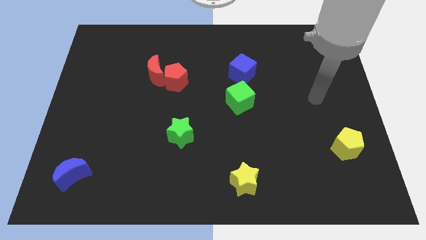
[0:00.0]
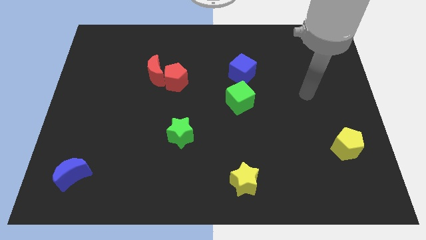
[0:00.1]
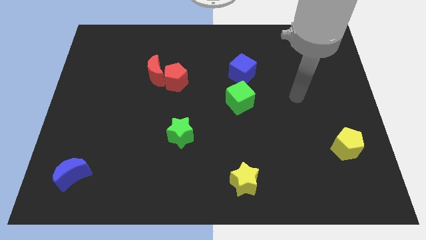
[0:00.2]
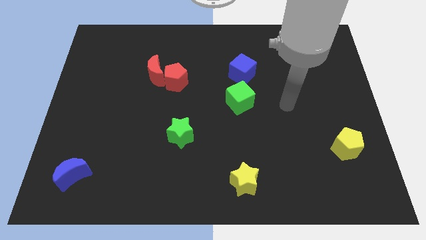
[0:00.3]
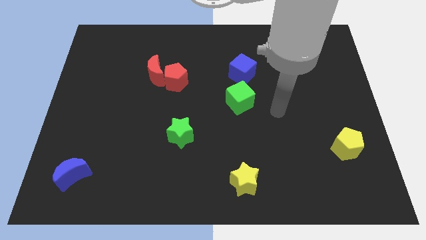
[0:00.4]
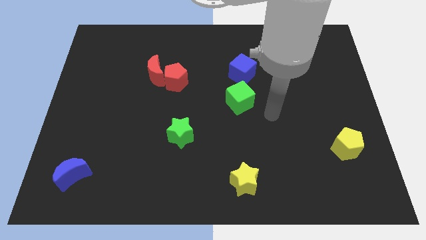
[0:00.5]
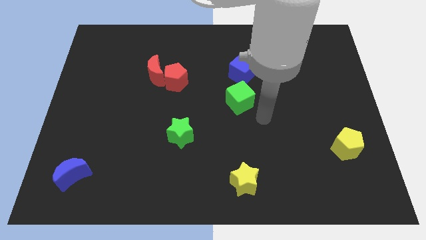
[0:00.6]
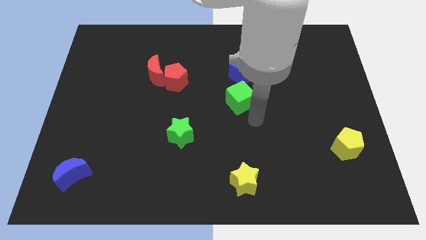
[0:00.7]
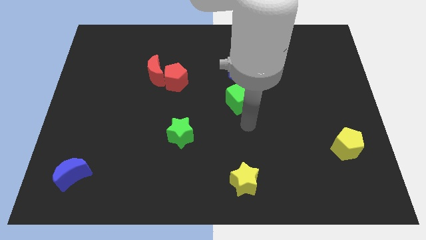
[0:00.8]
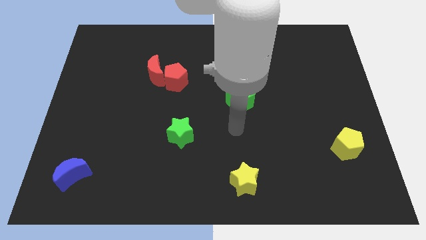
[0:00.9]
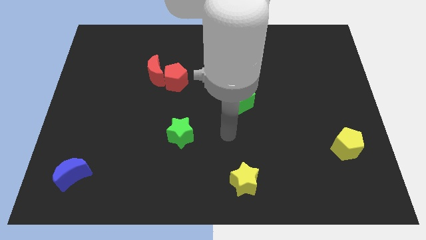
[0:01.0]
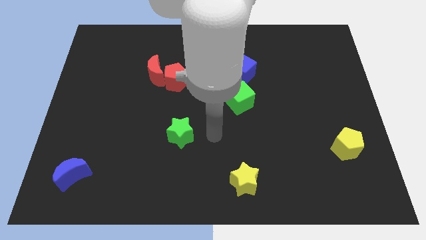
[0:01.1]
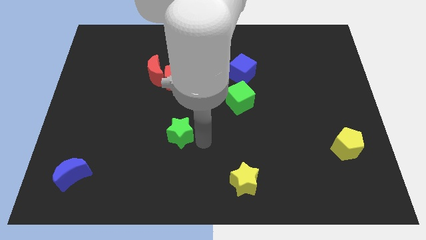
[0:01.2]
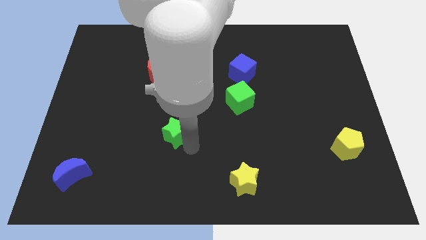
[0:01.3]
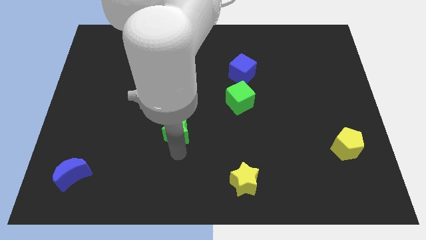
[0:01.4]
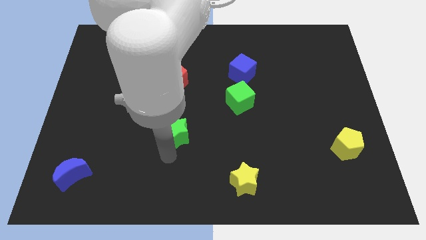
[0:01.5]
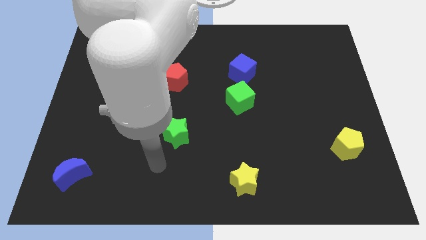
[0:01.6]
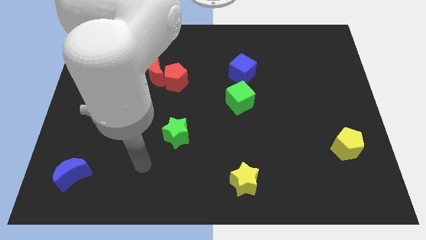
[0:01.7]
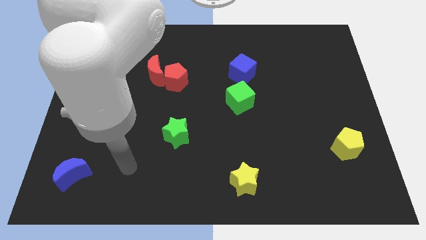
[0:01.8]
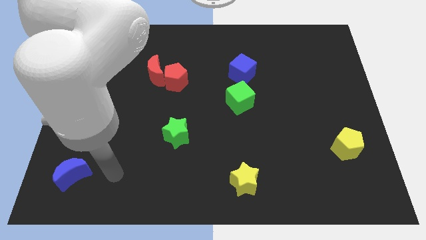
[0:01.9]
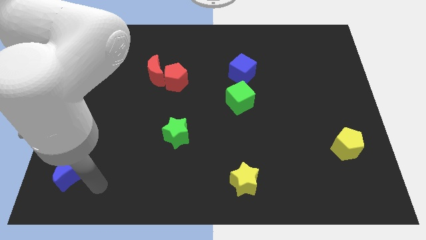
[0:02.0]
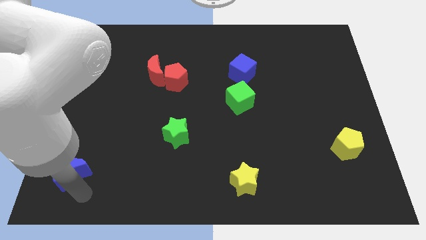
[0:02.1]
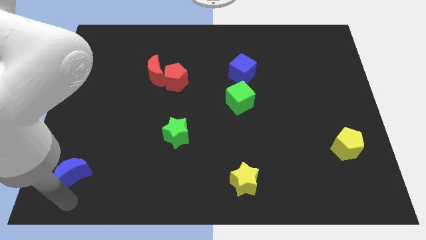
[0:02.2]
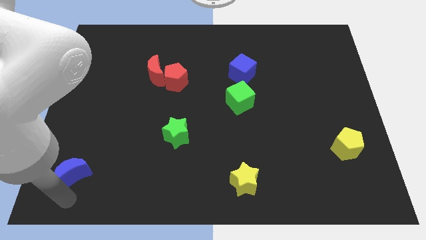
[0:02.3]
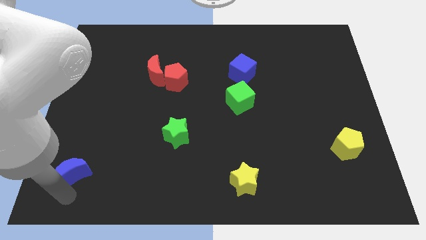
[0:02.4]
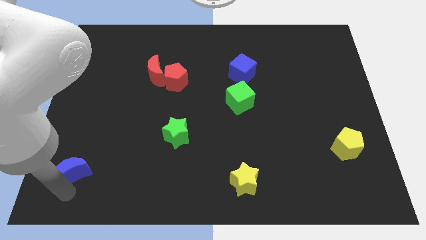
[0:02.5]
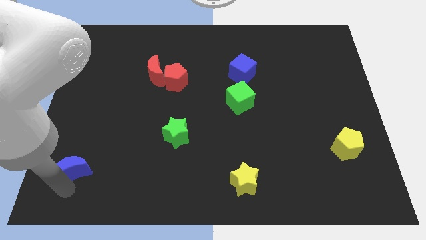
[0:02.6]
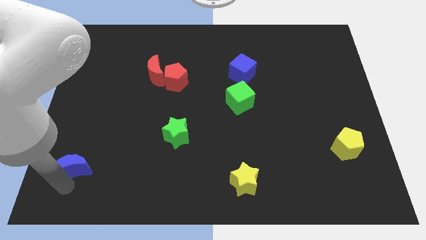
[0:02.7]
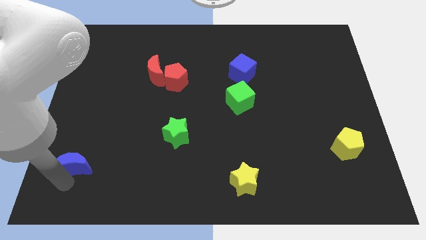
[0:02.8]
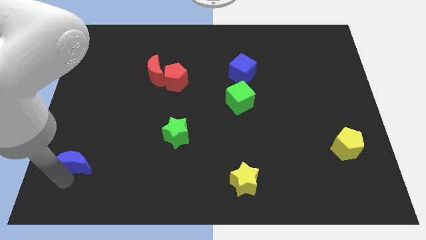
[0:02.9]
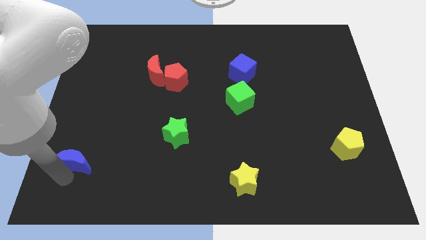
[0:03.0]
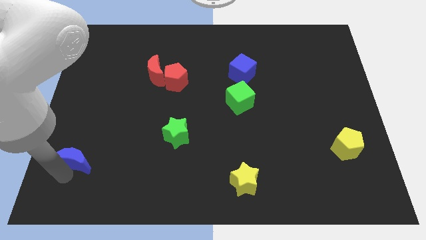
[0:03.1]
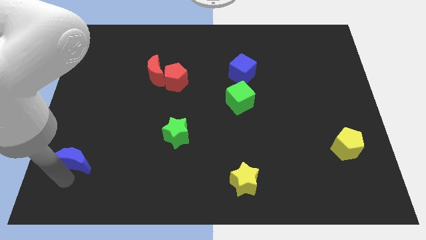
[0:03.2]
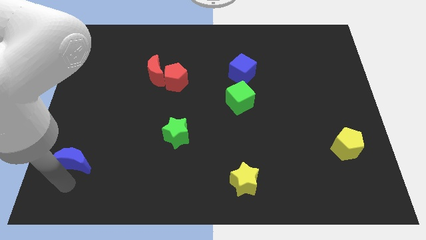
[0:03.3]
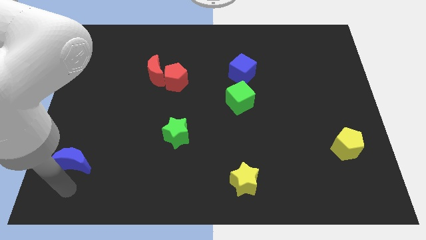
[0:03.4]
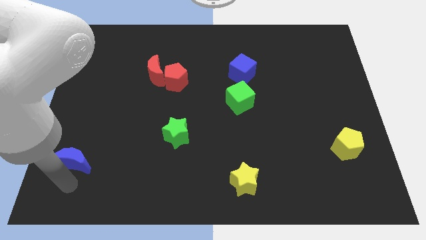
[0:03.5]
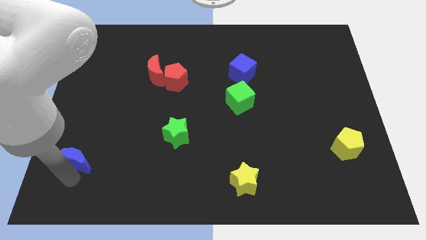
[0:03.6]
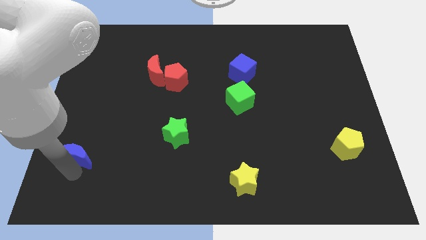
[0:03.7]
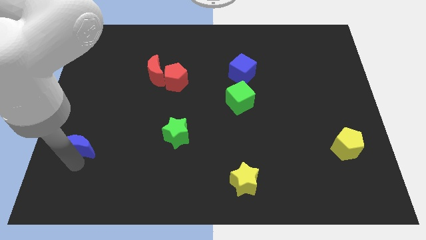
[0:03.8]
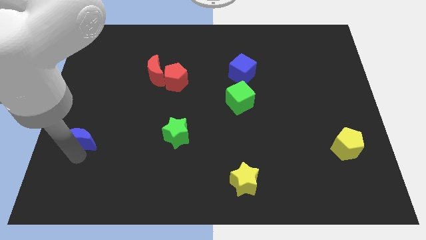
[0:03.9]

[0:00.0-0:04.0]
slide the blue moon a bit up

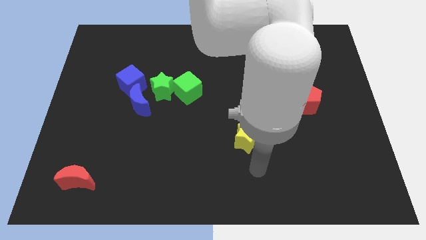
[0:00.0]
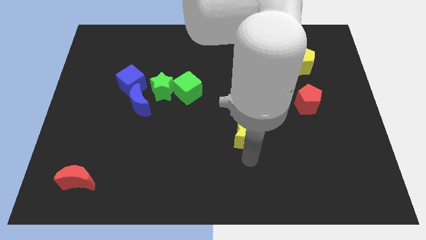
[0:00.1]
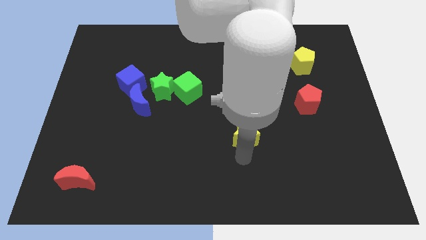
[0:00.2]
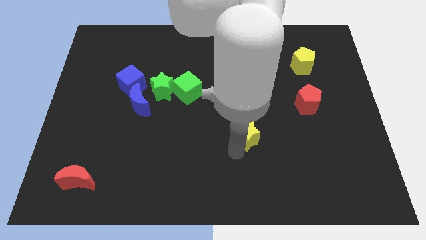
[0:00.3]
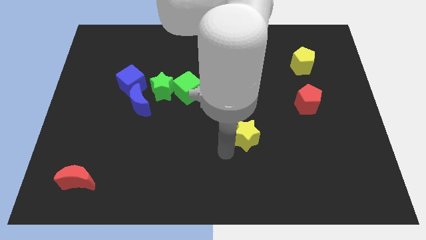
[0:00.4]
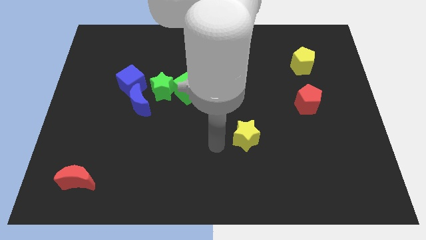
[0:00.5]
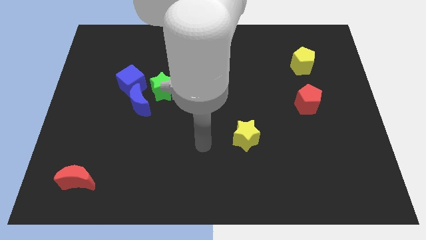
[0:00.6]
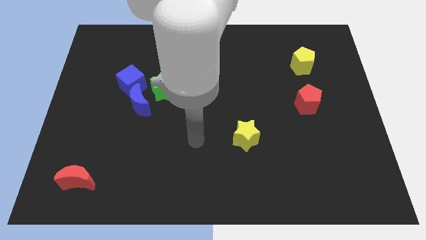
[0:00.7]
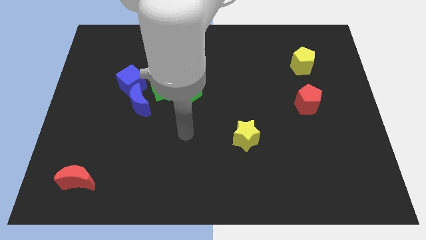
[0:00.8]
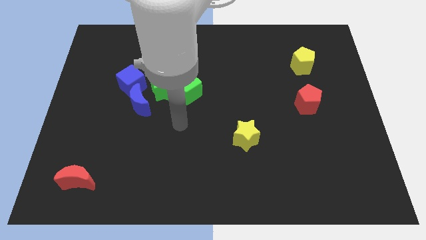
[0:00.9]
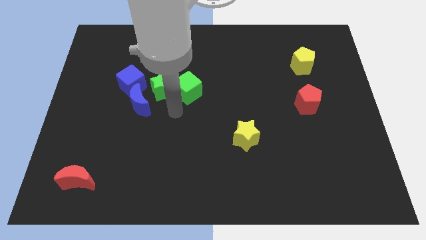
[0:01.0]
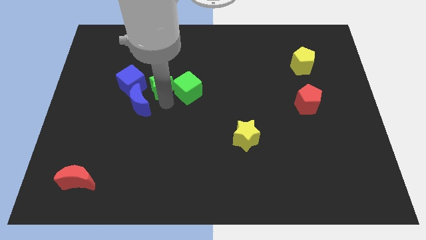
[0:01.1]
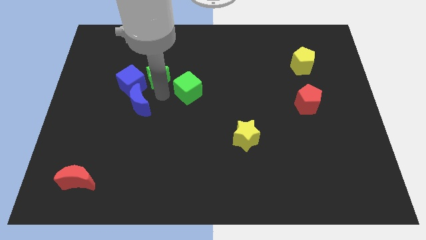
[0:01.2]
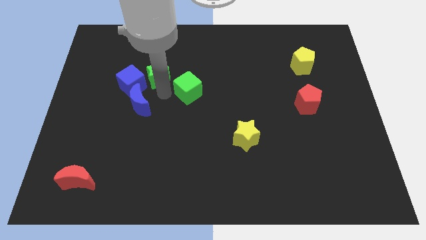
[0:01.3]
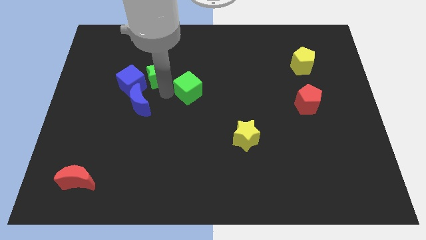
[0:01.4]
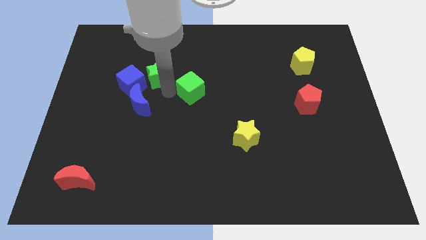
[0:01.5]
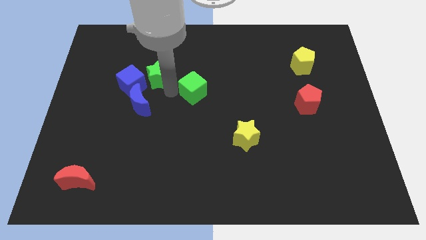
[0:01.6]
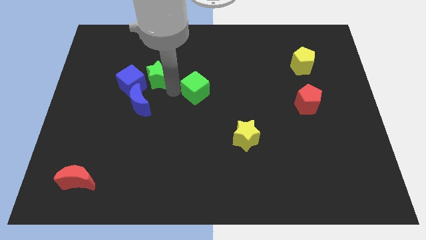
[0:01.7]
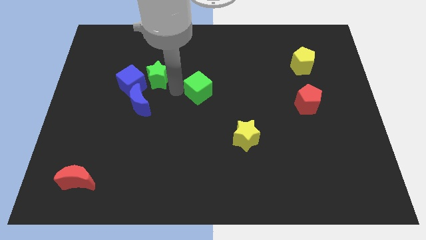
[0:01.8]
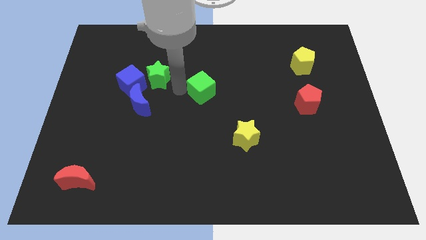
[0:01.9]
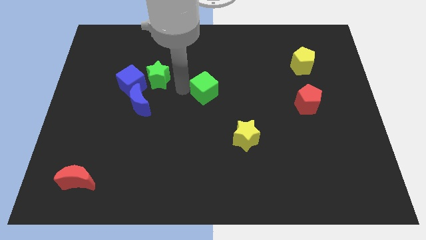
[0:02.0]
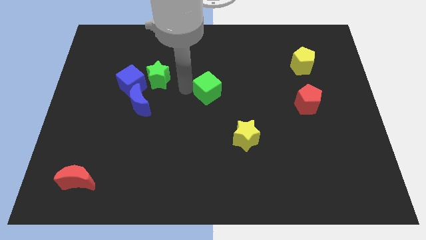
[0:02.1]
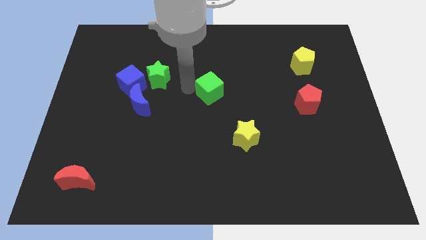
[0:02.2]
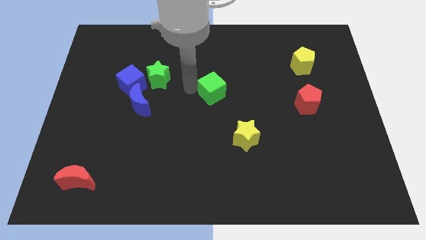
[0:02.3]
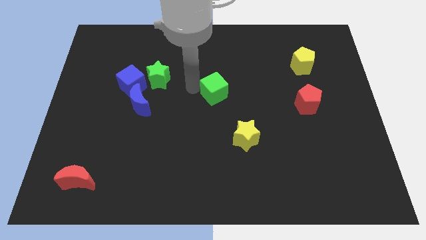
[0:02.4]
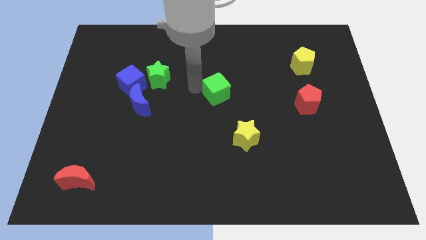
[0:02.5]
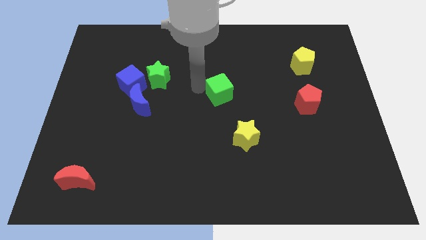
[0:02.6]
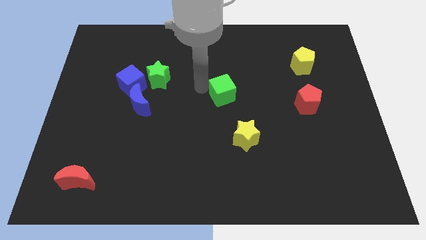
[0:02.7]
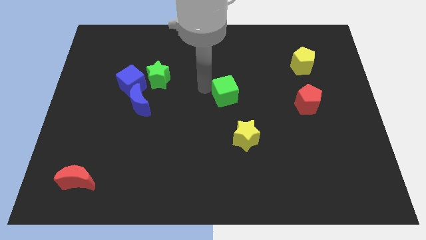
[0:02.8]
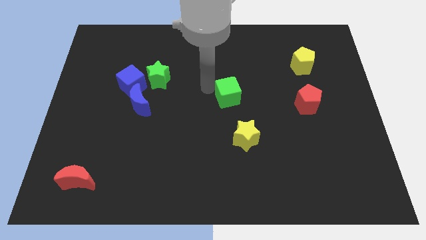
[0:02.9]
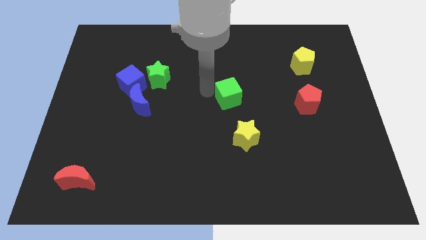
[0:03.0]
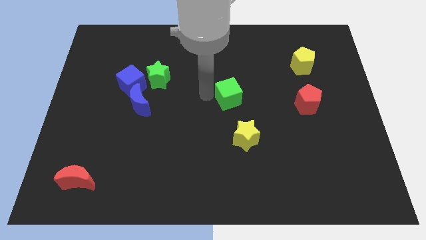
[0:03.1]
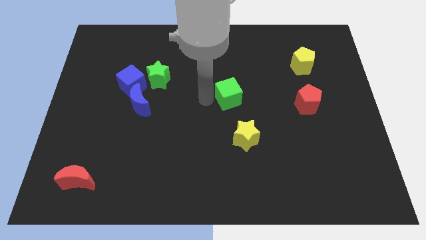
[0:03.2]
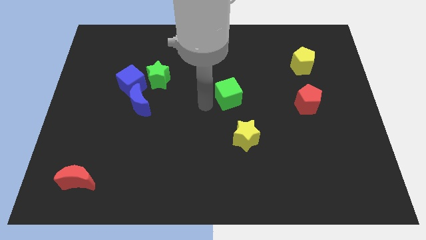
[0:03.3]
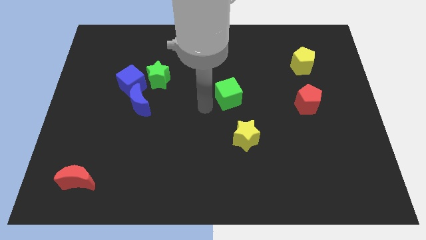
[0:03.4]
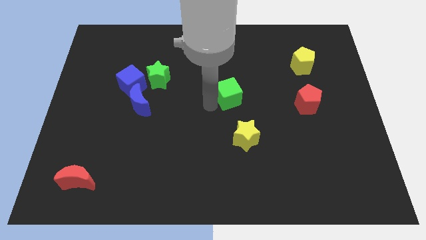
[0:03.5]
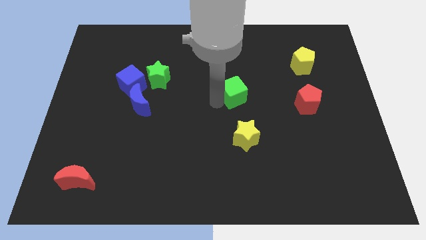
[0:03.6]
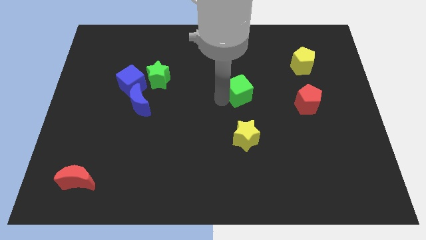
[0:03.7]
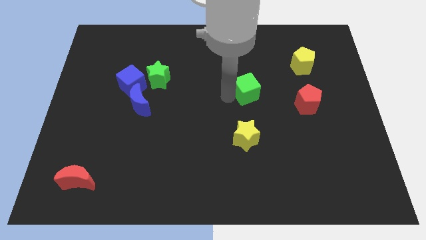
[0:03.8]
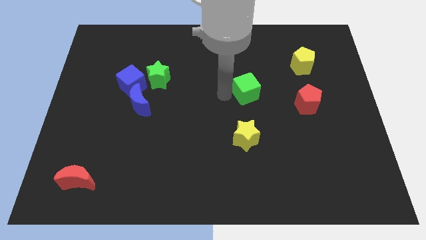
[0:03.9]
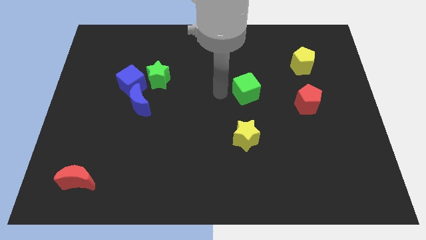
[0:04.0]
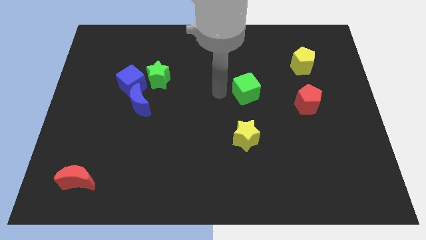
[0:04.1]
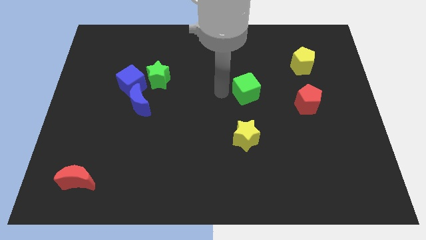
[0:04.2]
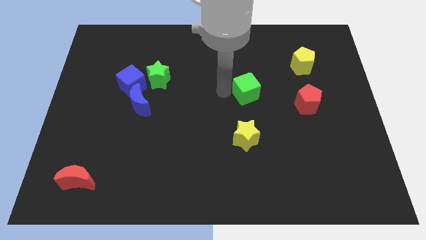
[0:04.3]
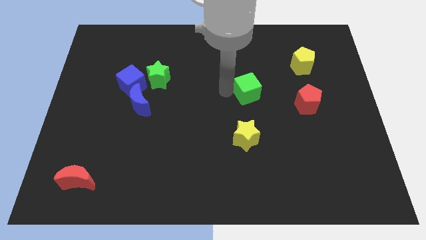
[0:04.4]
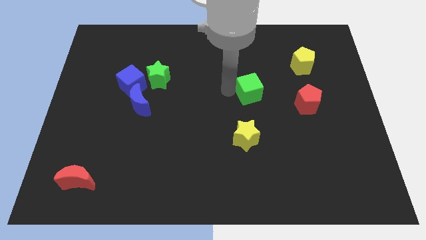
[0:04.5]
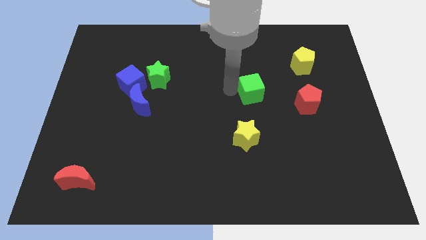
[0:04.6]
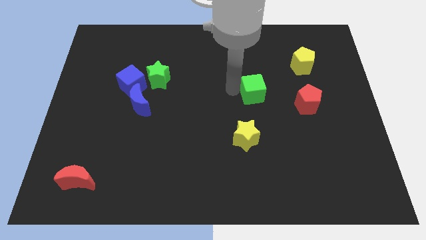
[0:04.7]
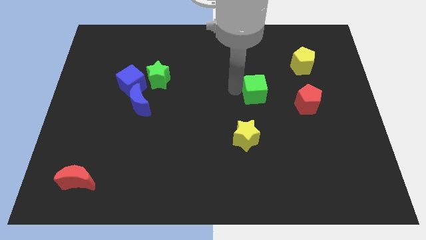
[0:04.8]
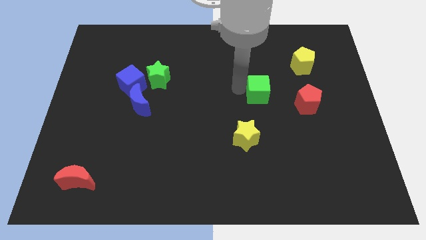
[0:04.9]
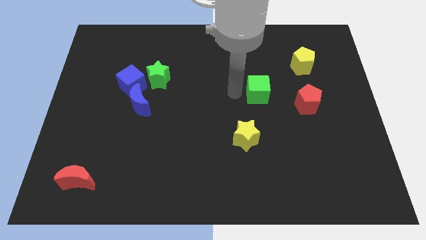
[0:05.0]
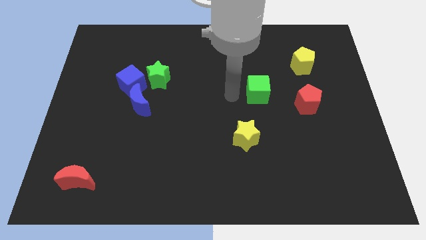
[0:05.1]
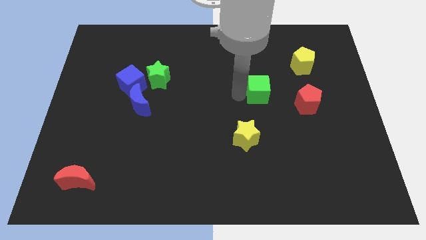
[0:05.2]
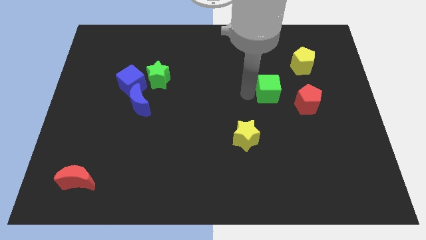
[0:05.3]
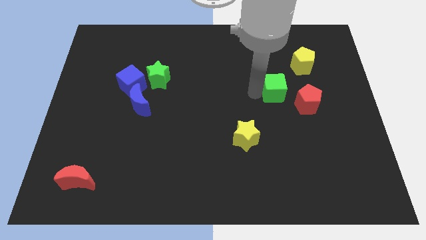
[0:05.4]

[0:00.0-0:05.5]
move the green cube to the right
